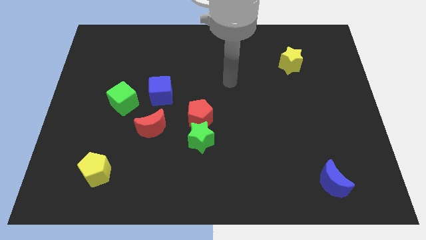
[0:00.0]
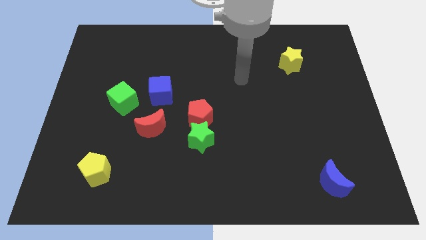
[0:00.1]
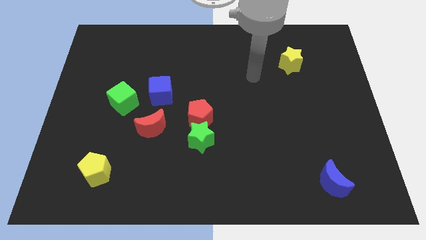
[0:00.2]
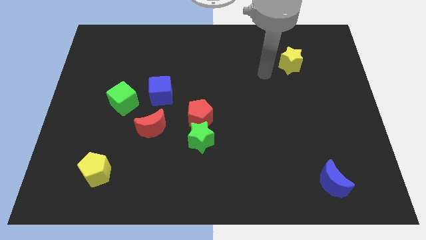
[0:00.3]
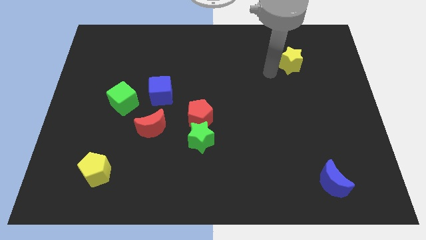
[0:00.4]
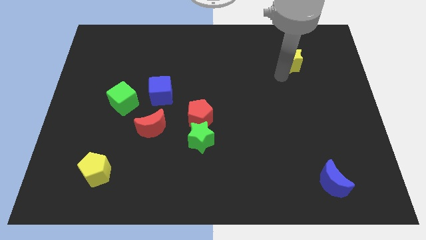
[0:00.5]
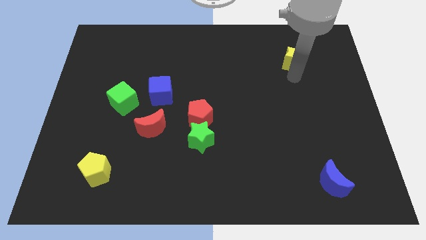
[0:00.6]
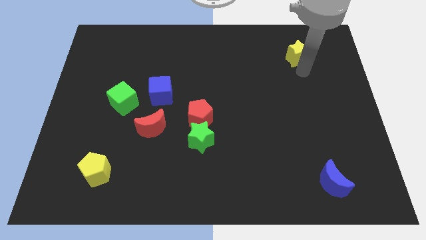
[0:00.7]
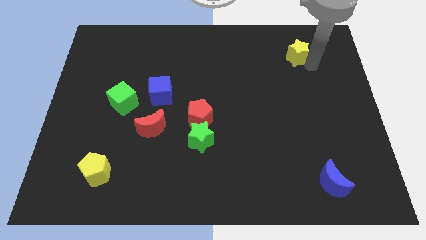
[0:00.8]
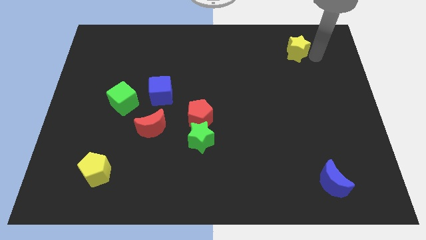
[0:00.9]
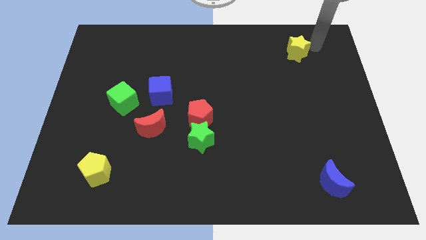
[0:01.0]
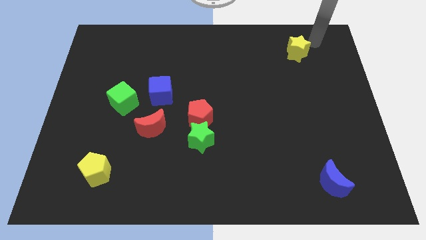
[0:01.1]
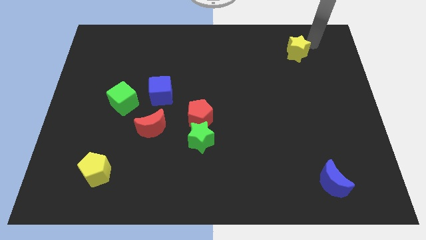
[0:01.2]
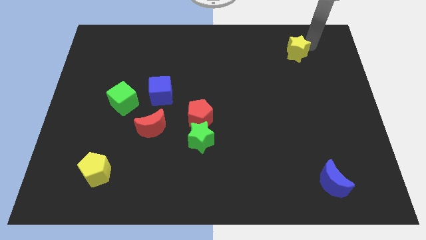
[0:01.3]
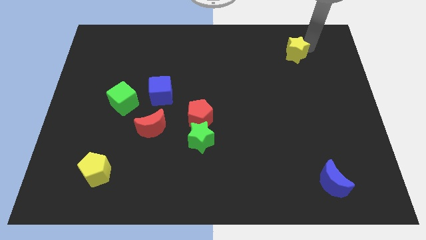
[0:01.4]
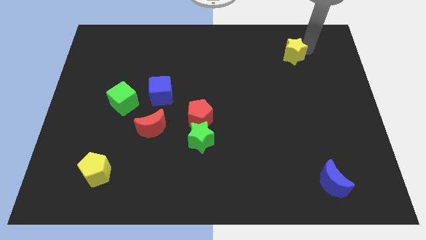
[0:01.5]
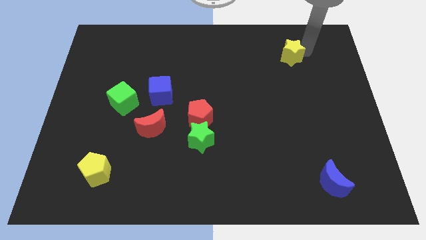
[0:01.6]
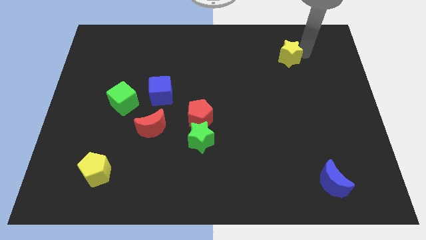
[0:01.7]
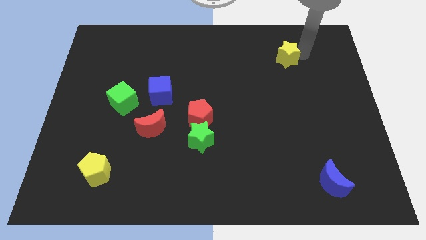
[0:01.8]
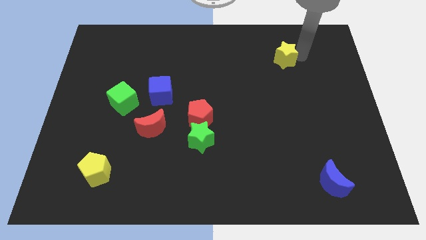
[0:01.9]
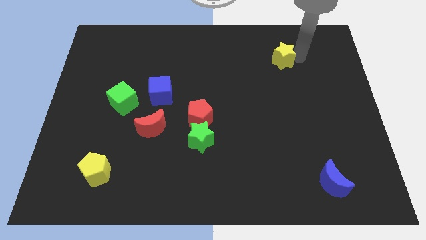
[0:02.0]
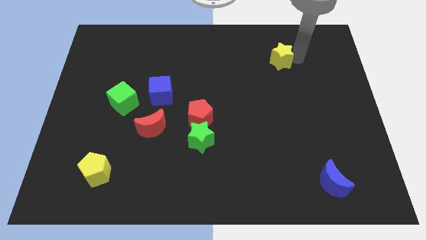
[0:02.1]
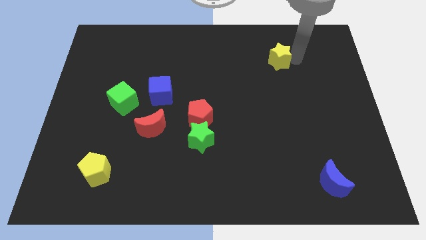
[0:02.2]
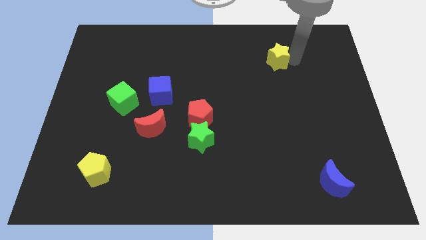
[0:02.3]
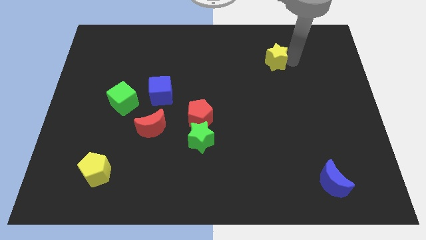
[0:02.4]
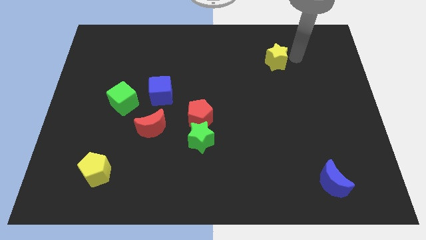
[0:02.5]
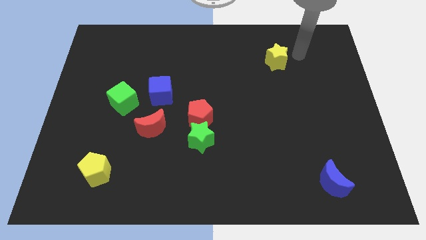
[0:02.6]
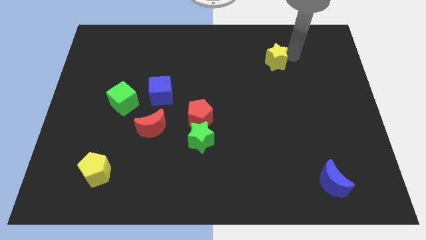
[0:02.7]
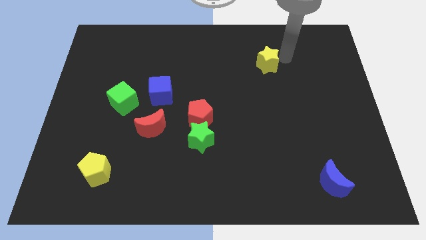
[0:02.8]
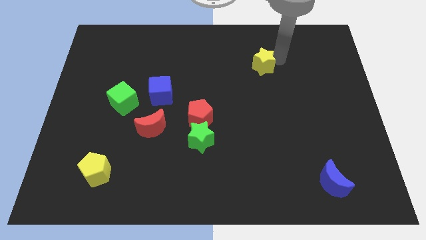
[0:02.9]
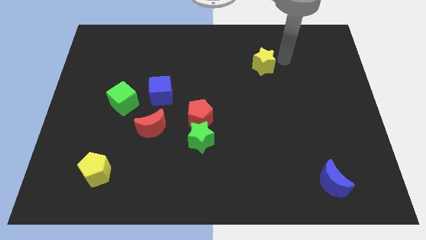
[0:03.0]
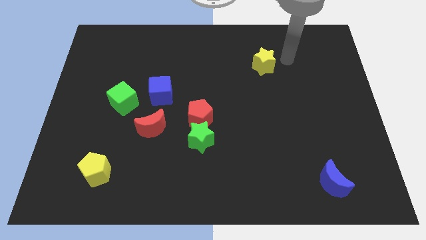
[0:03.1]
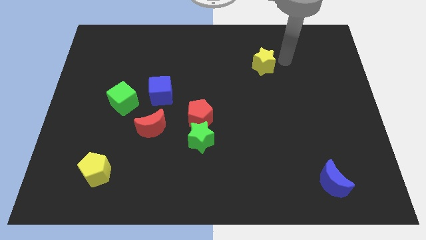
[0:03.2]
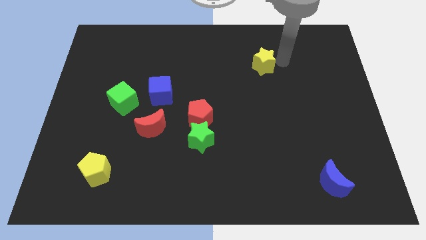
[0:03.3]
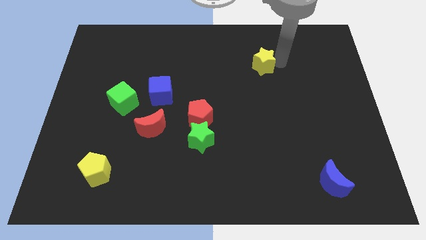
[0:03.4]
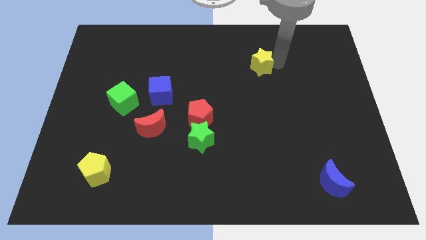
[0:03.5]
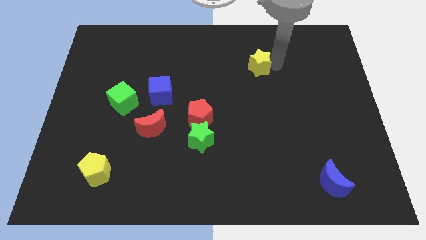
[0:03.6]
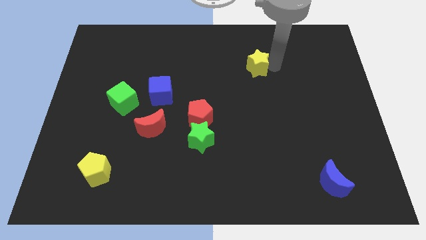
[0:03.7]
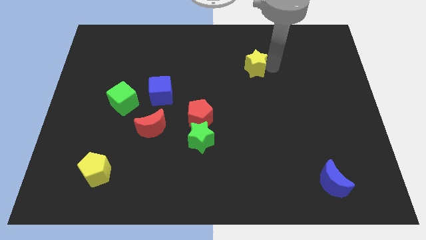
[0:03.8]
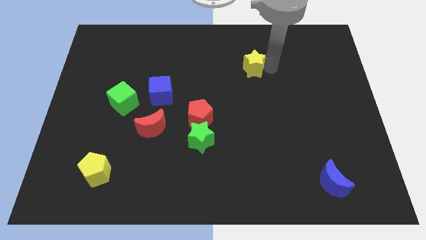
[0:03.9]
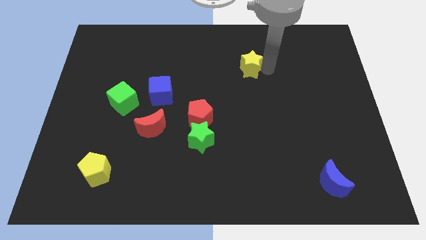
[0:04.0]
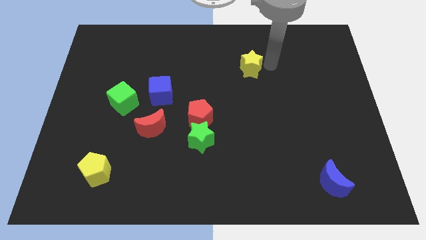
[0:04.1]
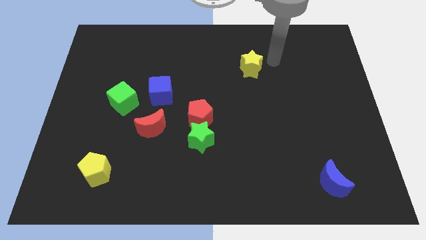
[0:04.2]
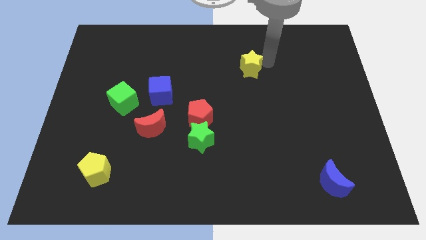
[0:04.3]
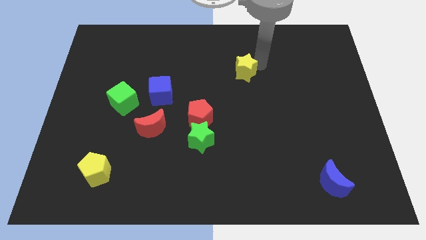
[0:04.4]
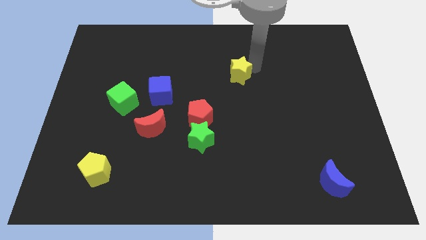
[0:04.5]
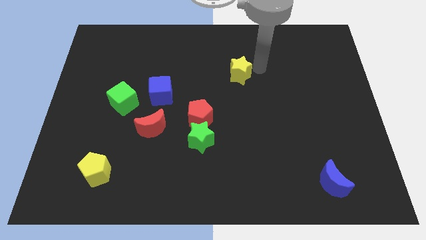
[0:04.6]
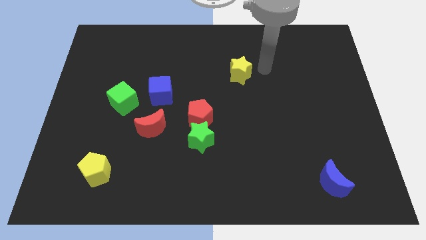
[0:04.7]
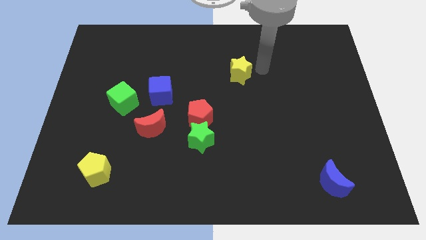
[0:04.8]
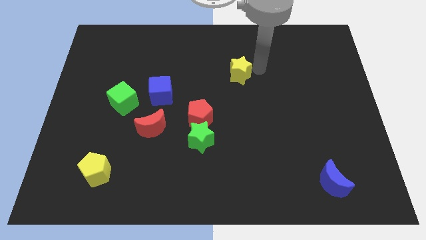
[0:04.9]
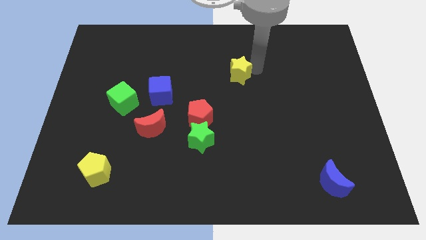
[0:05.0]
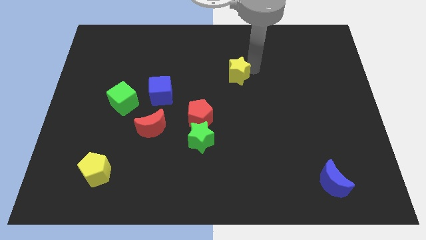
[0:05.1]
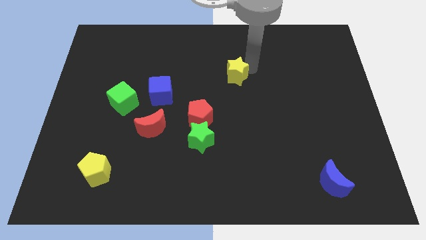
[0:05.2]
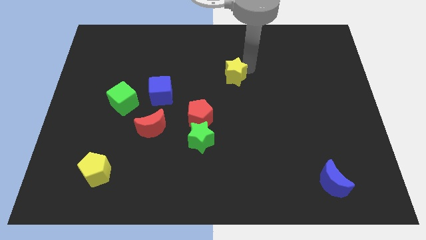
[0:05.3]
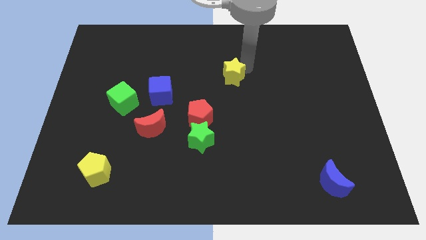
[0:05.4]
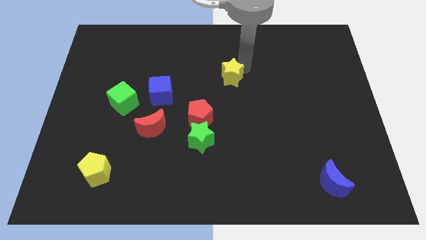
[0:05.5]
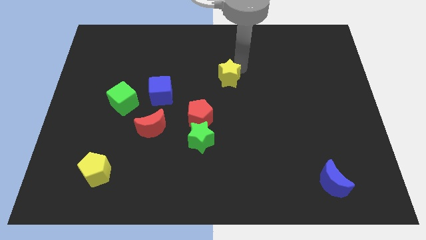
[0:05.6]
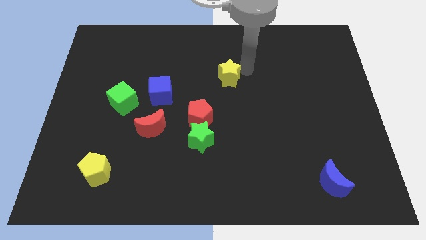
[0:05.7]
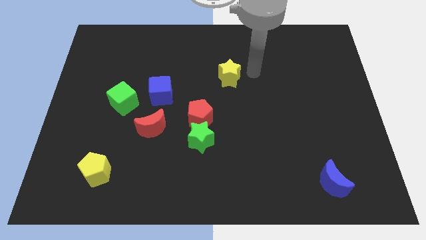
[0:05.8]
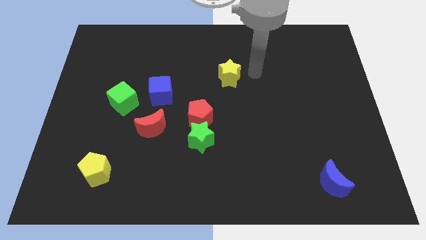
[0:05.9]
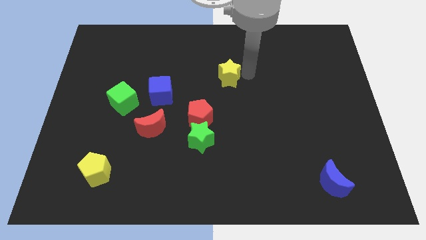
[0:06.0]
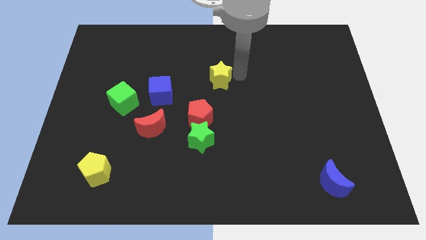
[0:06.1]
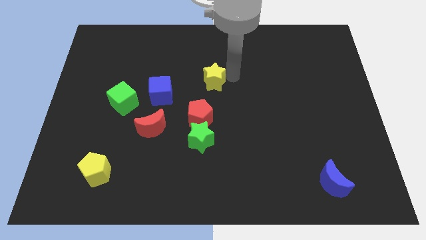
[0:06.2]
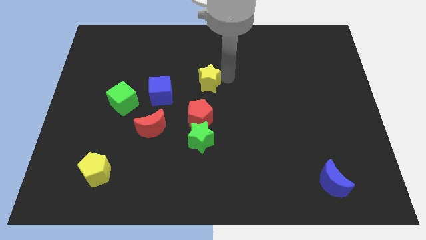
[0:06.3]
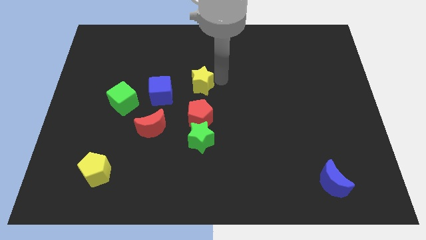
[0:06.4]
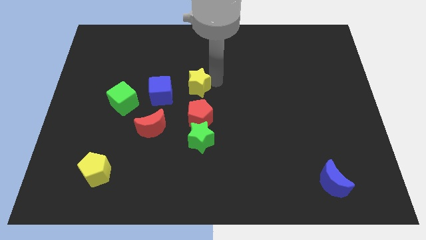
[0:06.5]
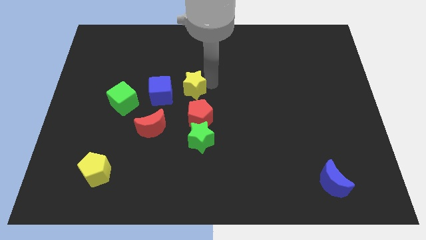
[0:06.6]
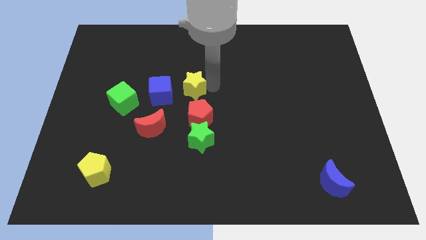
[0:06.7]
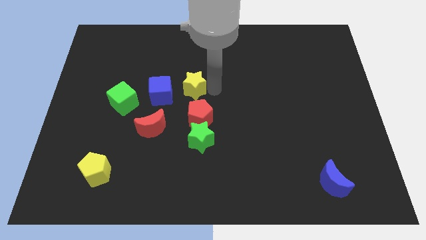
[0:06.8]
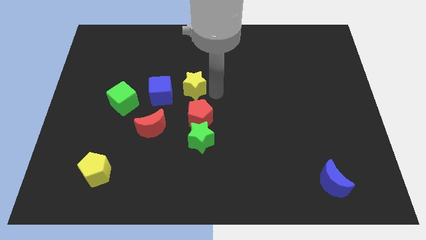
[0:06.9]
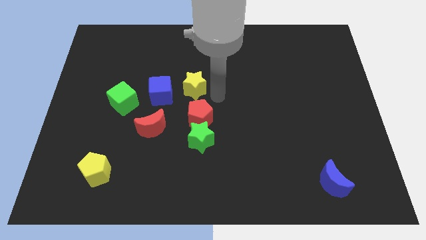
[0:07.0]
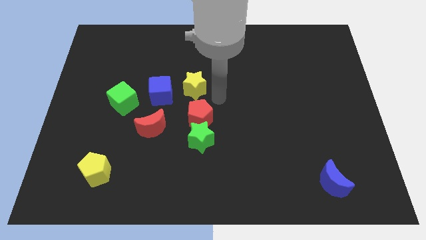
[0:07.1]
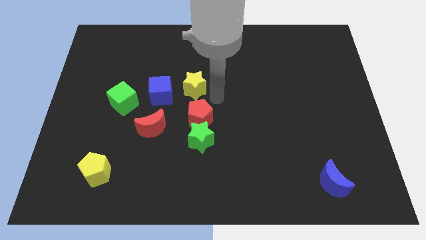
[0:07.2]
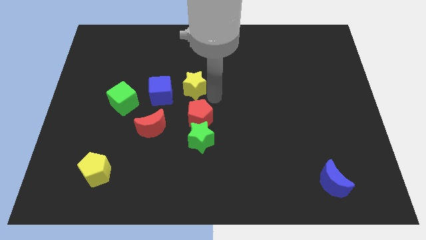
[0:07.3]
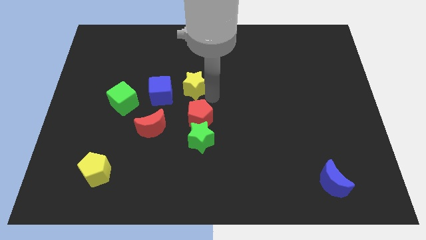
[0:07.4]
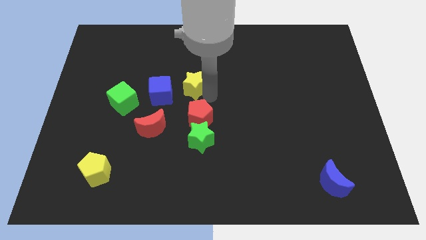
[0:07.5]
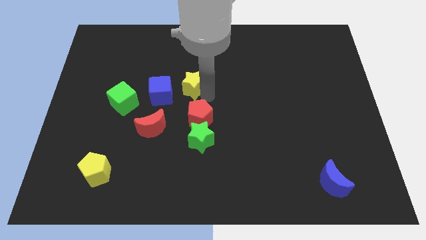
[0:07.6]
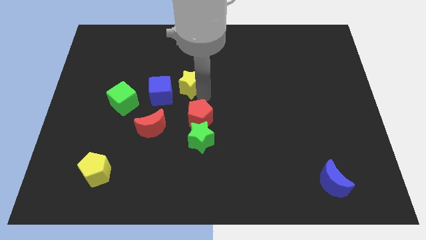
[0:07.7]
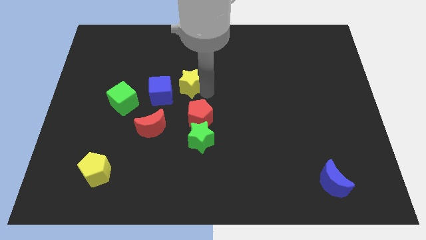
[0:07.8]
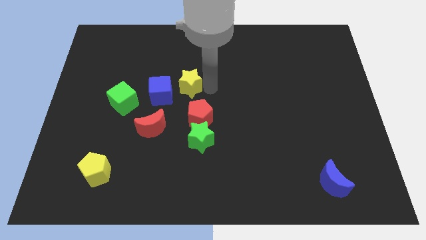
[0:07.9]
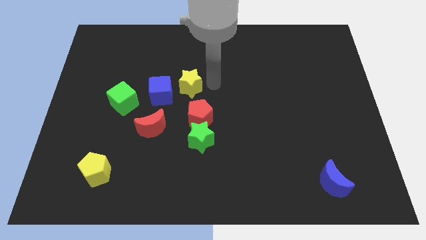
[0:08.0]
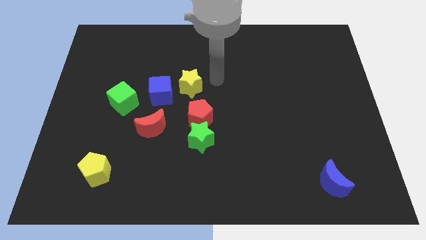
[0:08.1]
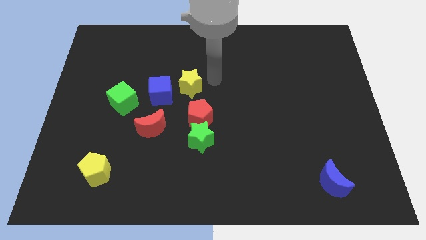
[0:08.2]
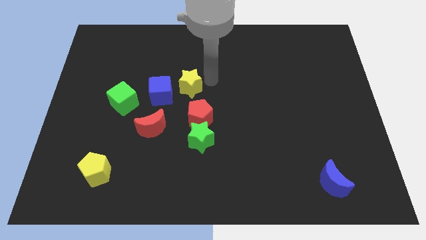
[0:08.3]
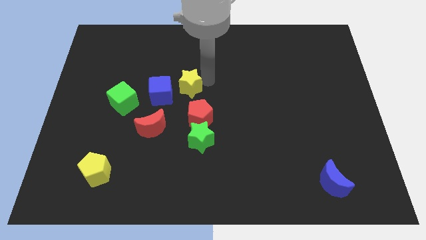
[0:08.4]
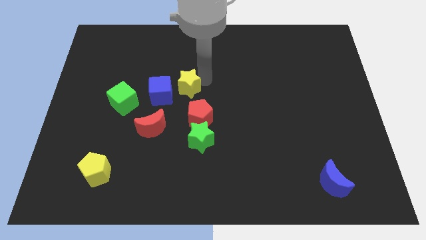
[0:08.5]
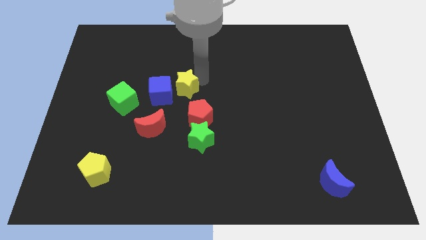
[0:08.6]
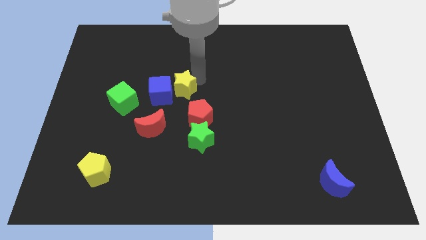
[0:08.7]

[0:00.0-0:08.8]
move the yellow star close to the blue cube
